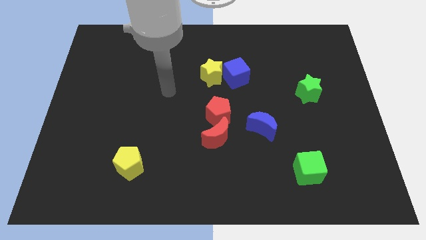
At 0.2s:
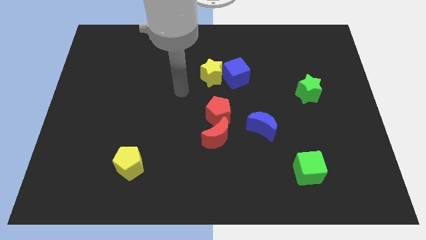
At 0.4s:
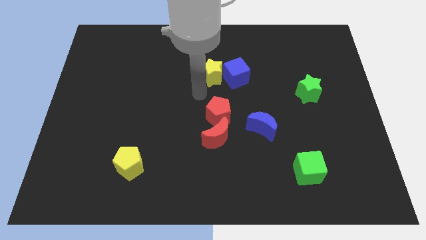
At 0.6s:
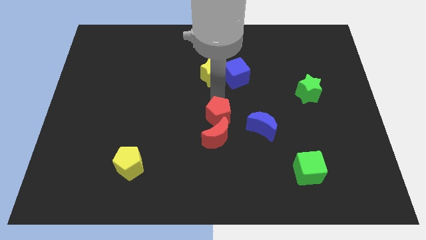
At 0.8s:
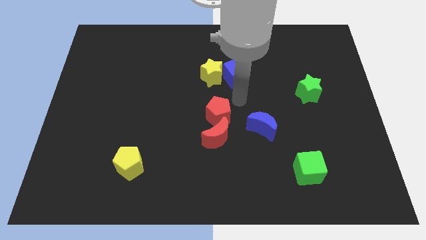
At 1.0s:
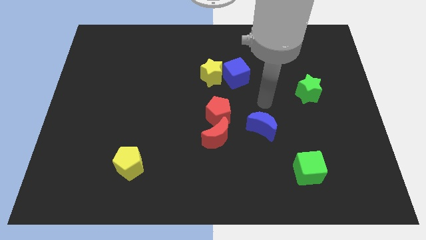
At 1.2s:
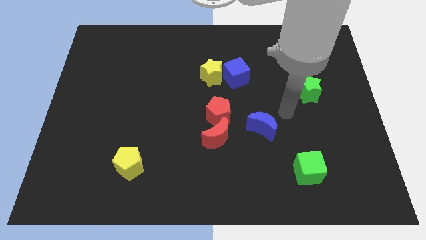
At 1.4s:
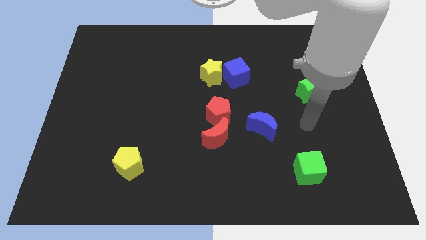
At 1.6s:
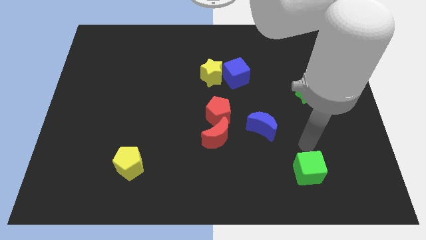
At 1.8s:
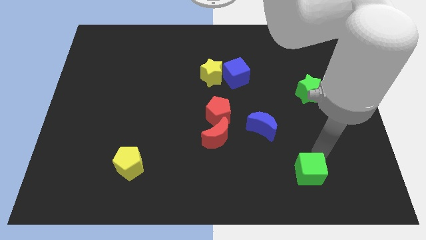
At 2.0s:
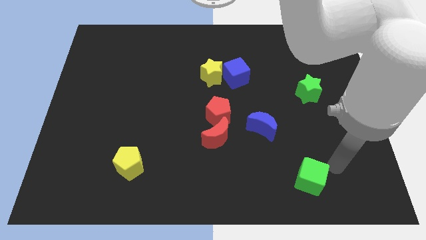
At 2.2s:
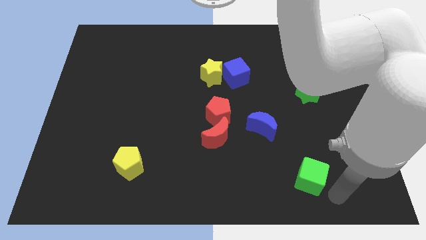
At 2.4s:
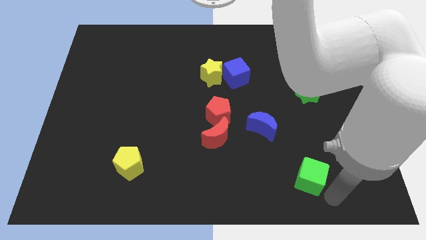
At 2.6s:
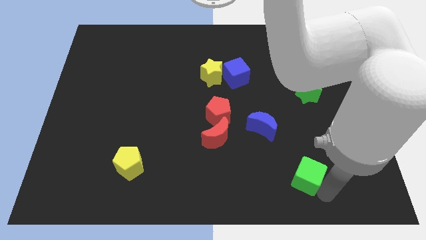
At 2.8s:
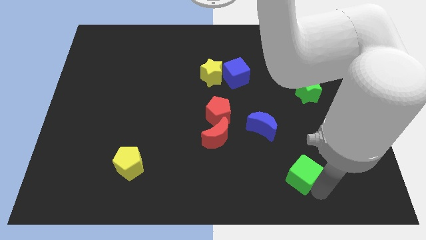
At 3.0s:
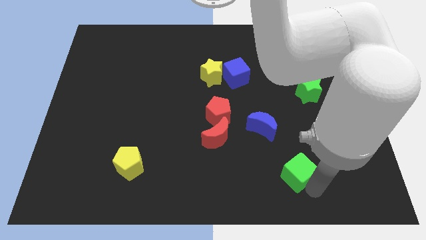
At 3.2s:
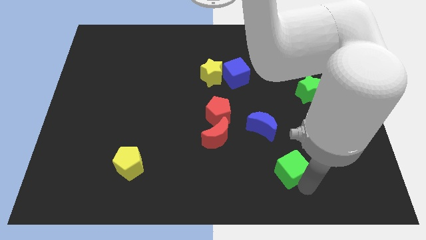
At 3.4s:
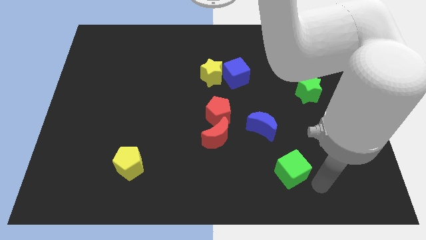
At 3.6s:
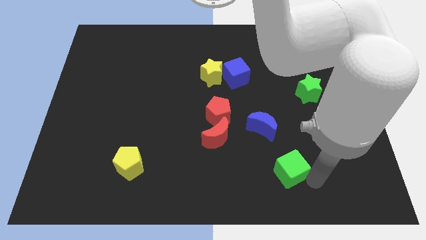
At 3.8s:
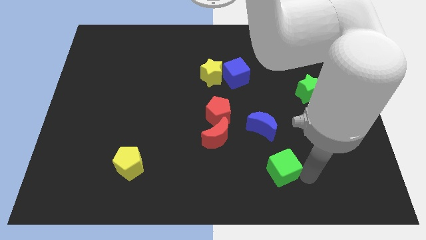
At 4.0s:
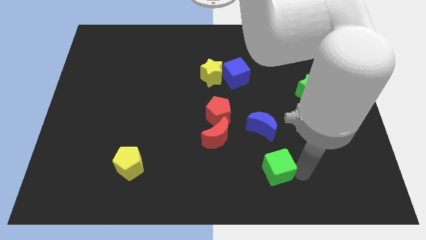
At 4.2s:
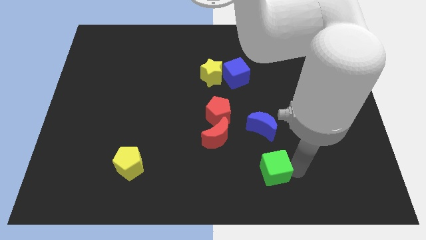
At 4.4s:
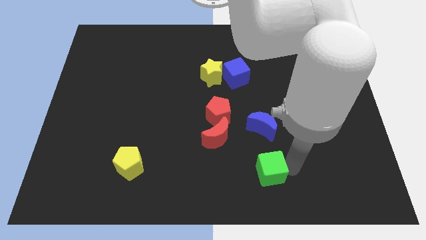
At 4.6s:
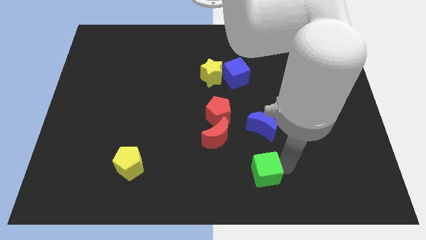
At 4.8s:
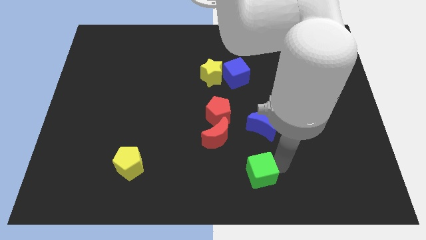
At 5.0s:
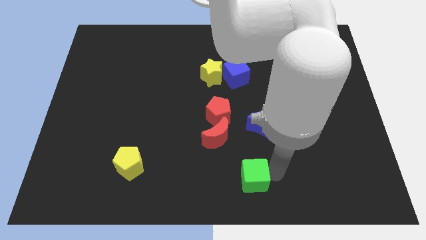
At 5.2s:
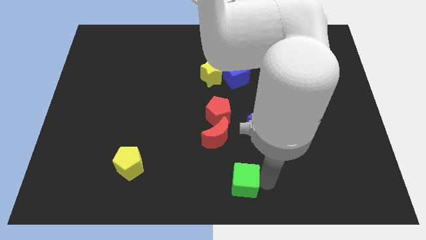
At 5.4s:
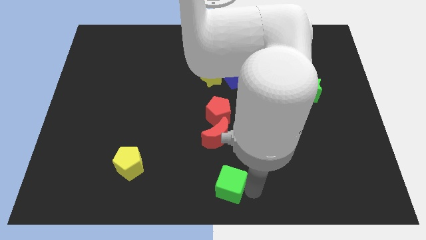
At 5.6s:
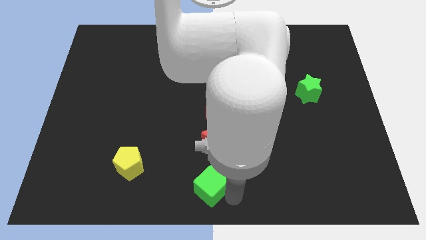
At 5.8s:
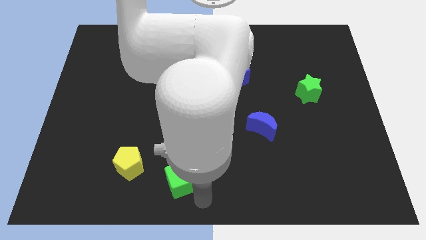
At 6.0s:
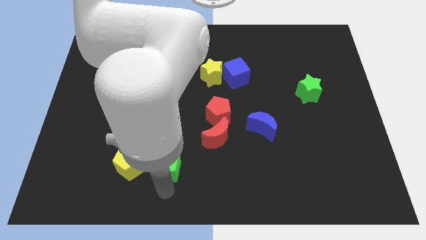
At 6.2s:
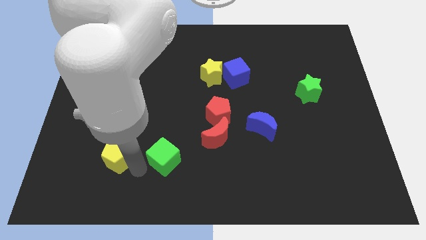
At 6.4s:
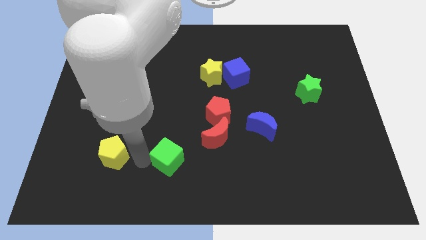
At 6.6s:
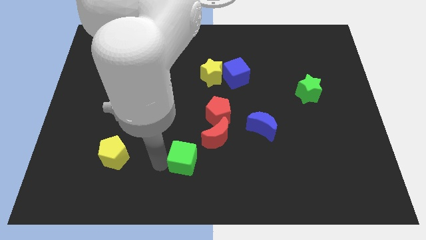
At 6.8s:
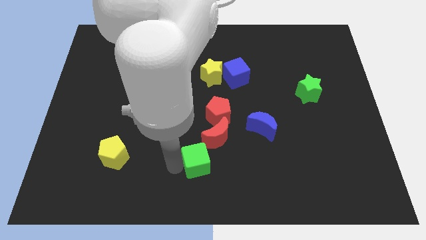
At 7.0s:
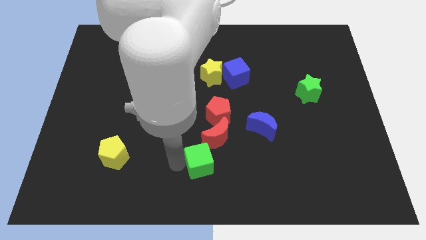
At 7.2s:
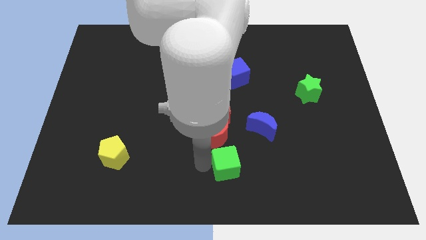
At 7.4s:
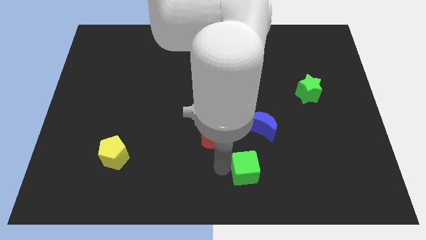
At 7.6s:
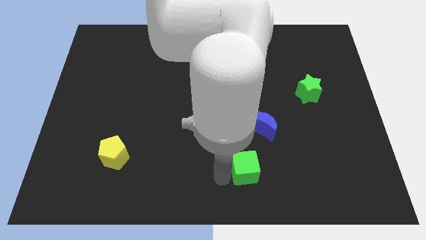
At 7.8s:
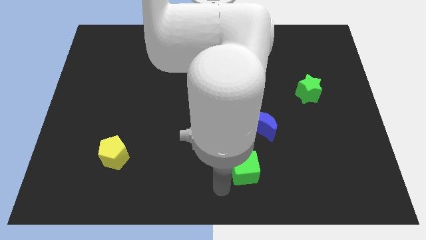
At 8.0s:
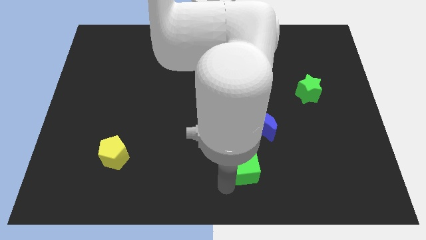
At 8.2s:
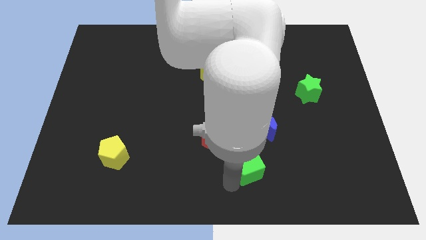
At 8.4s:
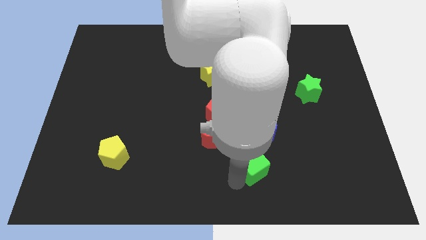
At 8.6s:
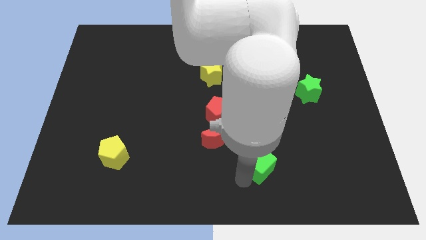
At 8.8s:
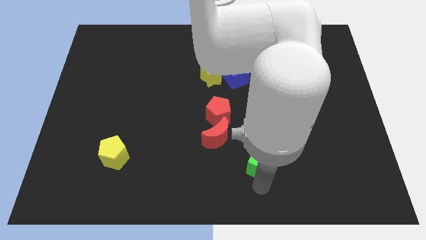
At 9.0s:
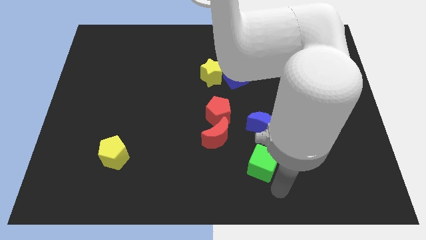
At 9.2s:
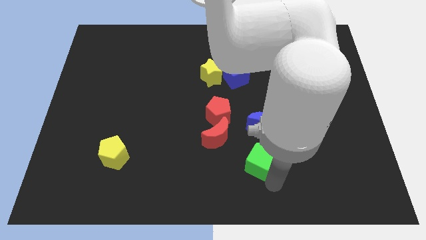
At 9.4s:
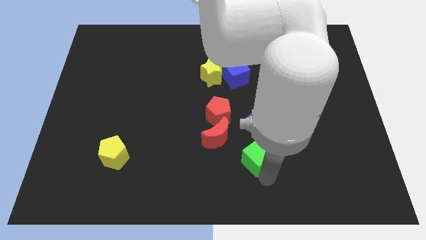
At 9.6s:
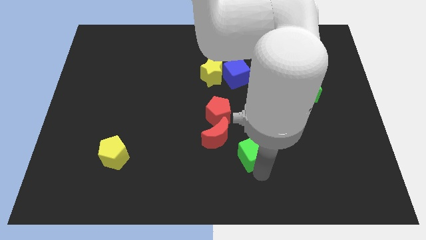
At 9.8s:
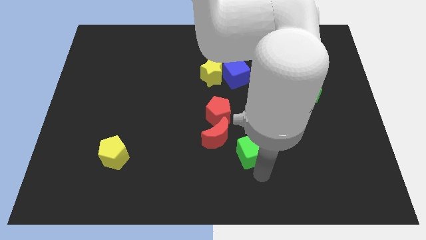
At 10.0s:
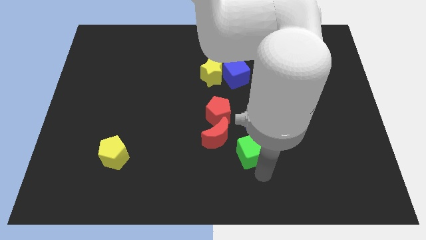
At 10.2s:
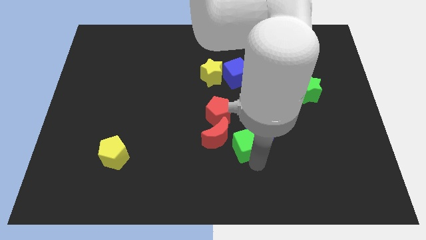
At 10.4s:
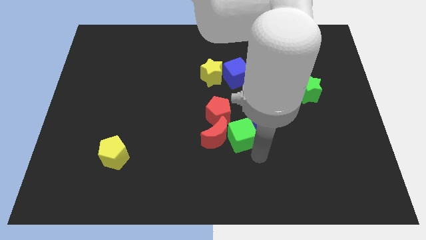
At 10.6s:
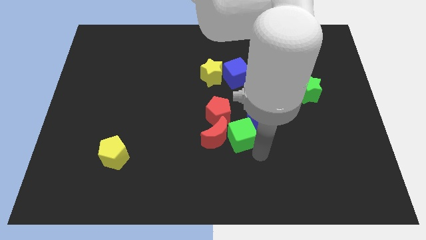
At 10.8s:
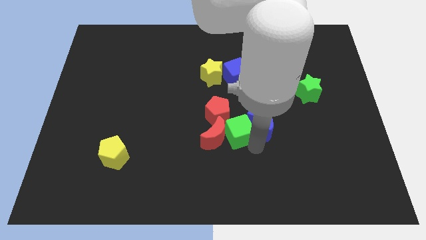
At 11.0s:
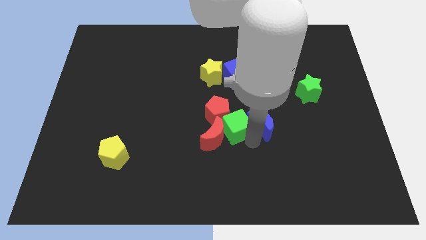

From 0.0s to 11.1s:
push the green cube close to the red pentagon

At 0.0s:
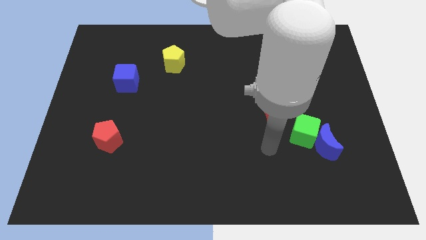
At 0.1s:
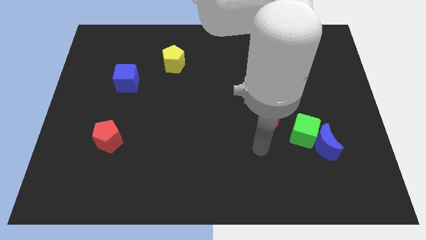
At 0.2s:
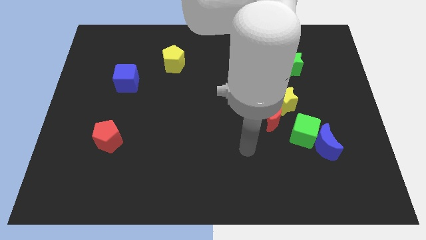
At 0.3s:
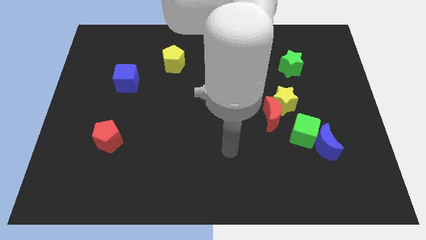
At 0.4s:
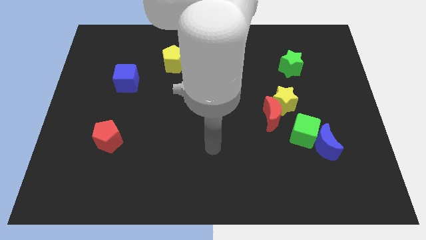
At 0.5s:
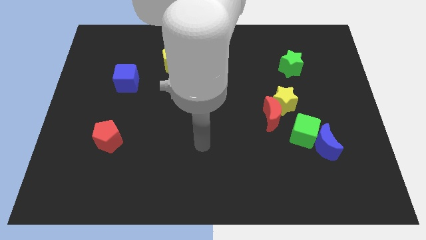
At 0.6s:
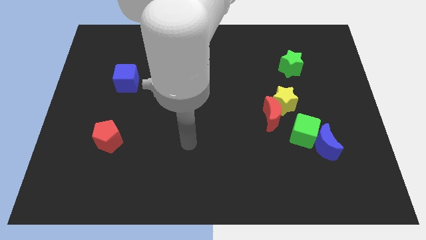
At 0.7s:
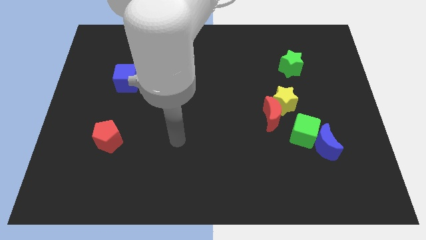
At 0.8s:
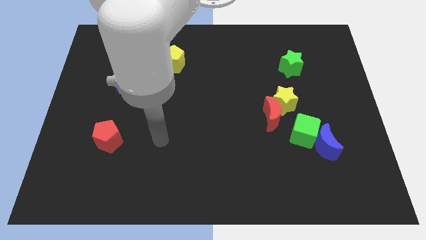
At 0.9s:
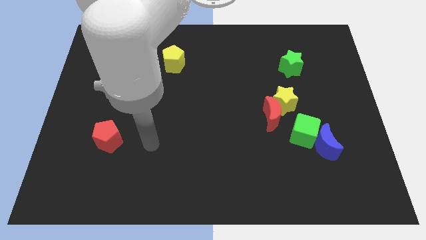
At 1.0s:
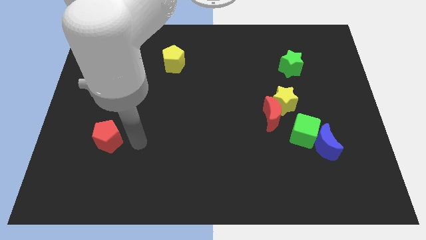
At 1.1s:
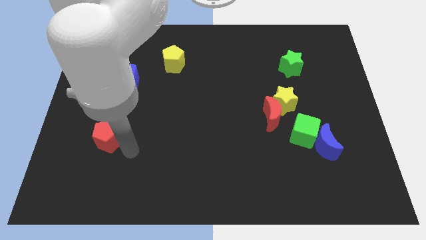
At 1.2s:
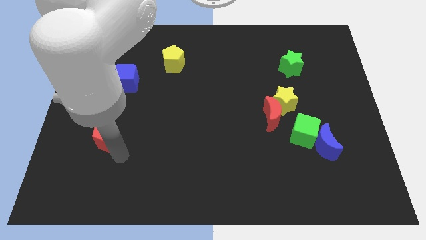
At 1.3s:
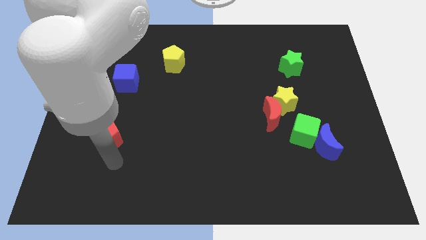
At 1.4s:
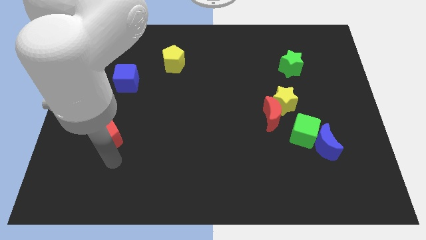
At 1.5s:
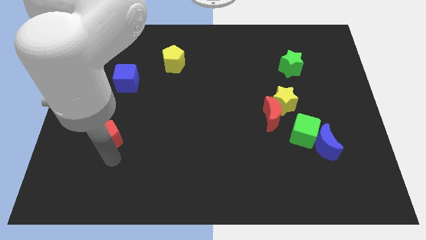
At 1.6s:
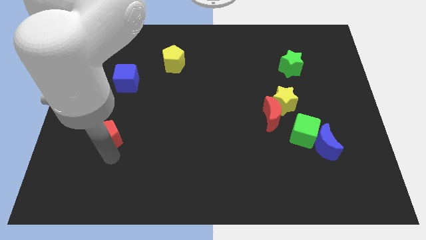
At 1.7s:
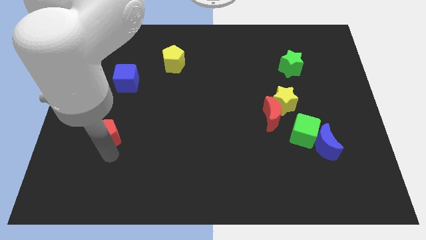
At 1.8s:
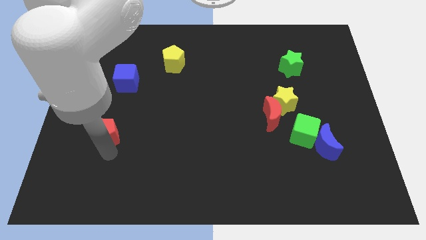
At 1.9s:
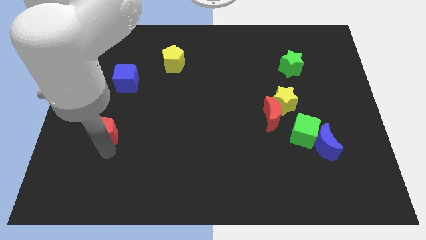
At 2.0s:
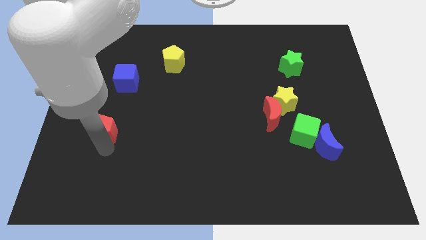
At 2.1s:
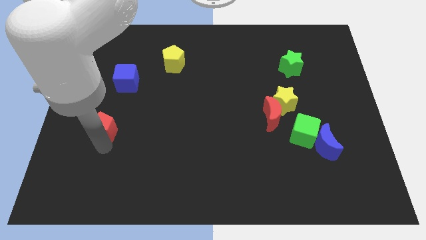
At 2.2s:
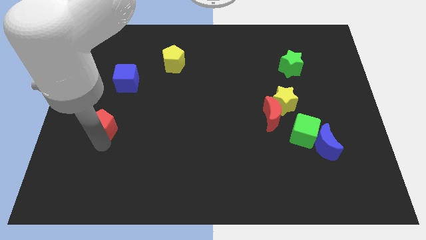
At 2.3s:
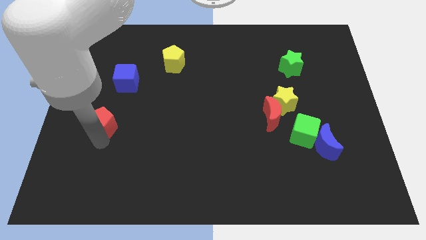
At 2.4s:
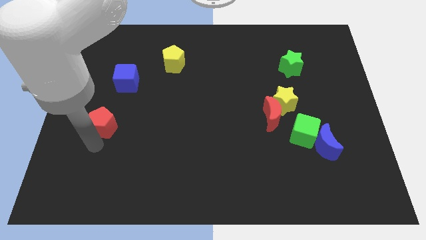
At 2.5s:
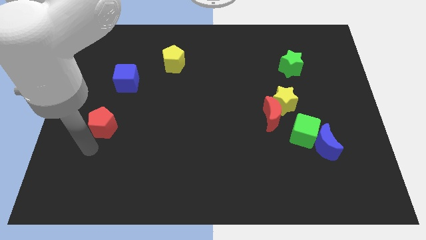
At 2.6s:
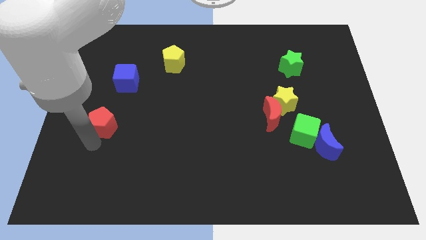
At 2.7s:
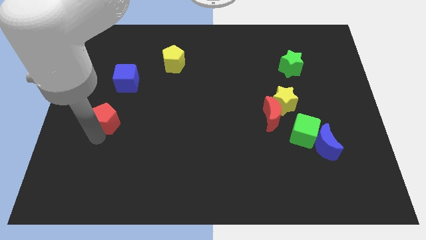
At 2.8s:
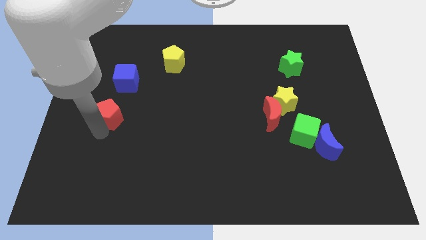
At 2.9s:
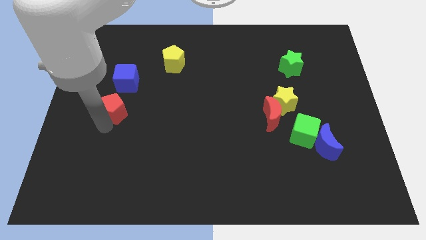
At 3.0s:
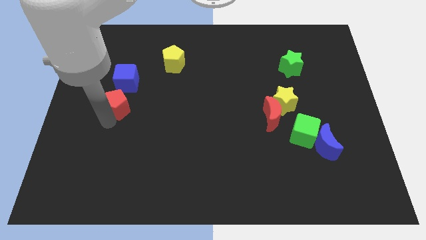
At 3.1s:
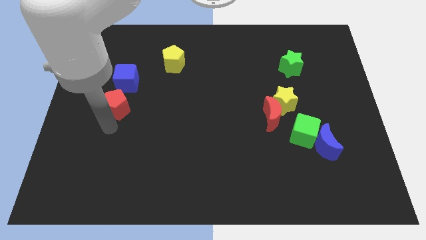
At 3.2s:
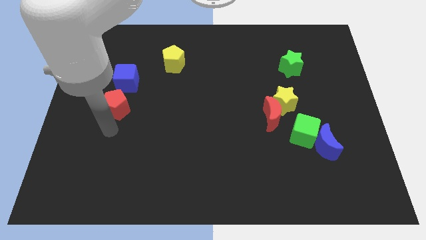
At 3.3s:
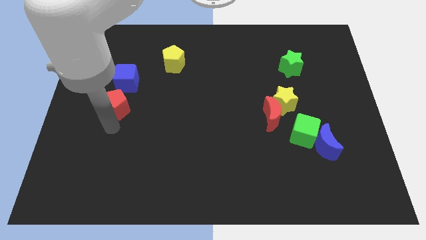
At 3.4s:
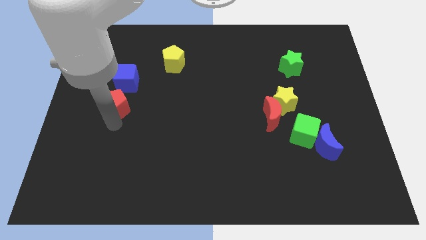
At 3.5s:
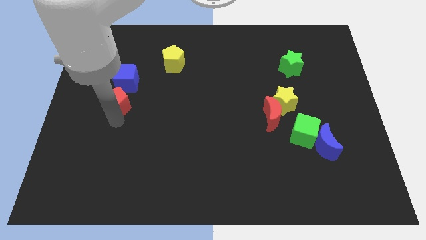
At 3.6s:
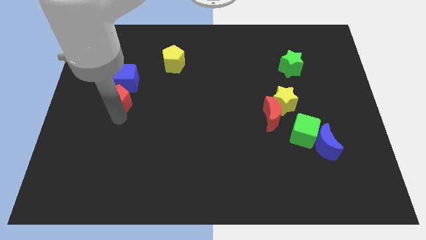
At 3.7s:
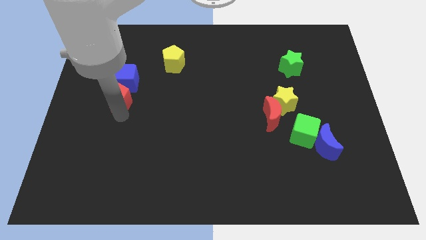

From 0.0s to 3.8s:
slide the red pentagon towards the blue cube
